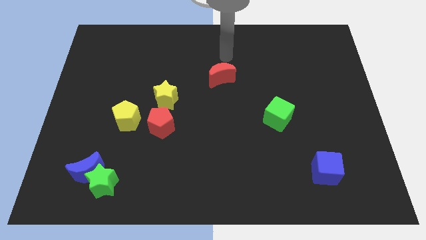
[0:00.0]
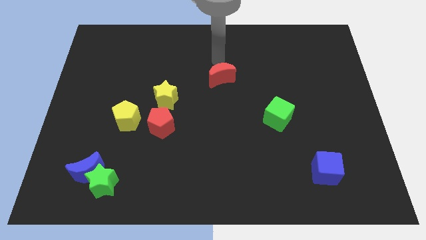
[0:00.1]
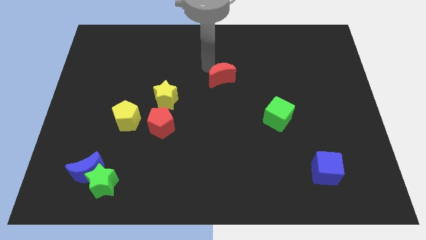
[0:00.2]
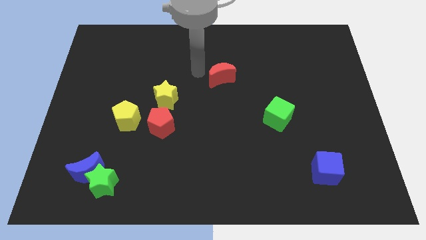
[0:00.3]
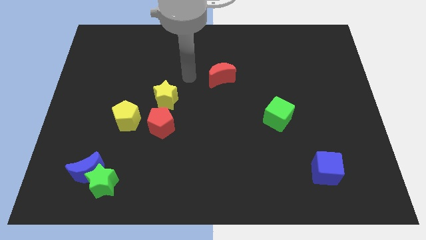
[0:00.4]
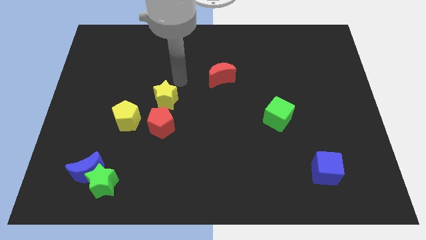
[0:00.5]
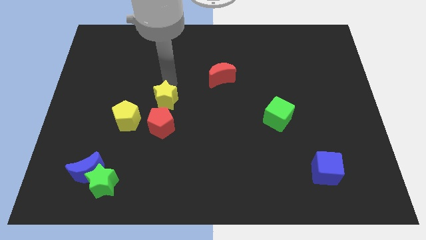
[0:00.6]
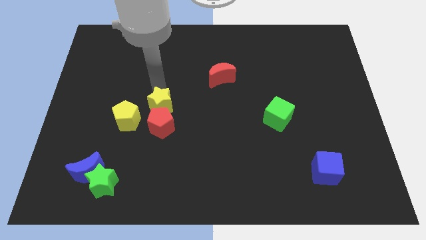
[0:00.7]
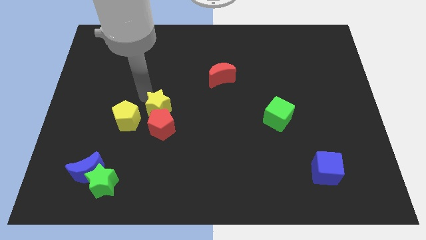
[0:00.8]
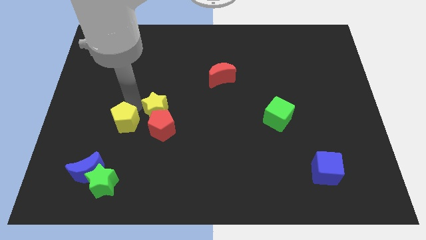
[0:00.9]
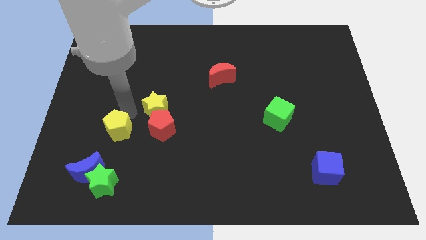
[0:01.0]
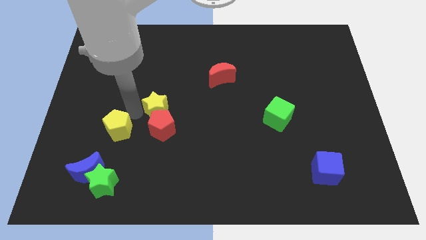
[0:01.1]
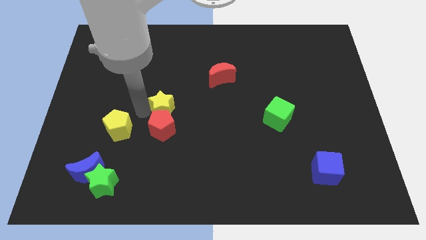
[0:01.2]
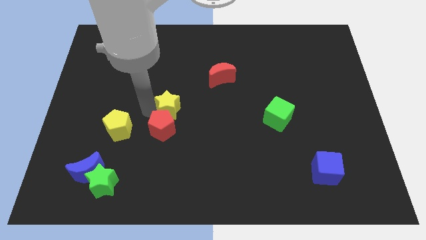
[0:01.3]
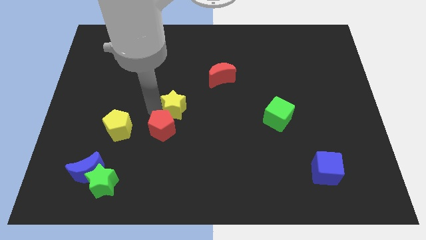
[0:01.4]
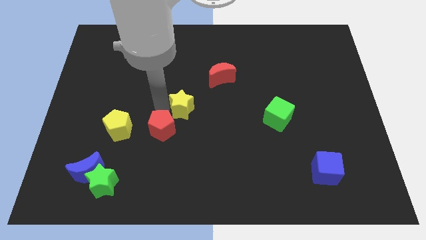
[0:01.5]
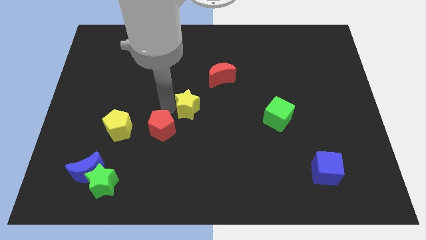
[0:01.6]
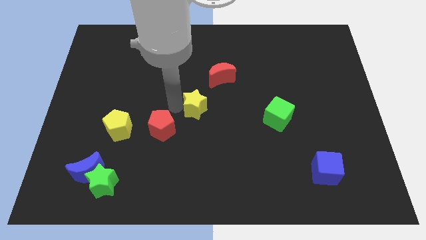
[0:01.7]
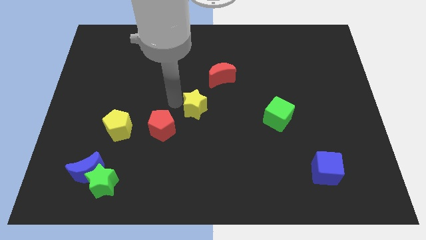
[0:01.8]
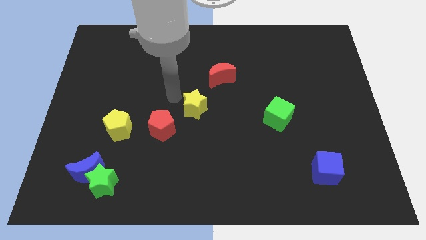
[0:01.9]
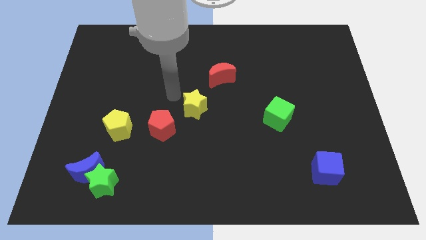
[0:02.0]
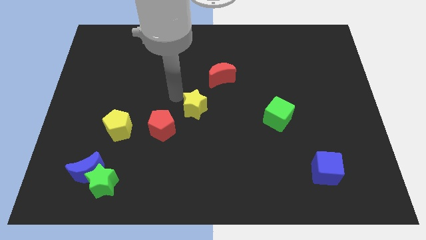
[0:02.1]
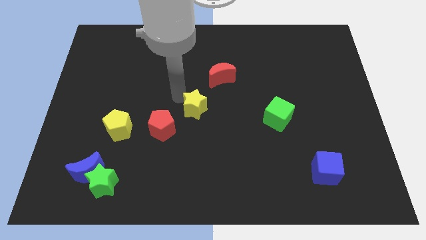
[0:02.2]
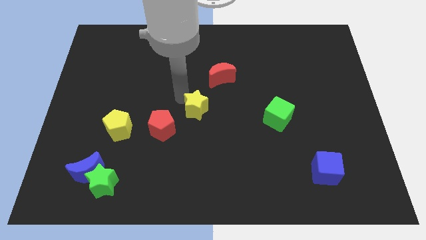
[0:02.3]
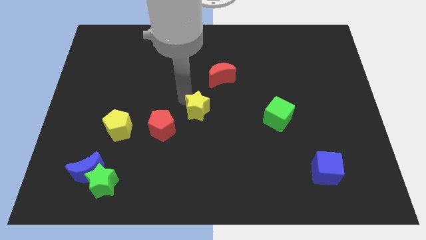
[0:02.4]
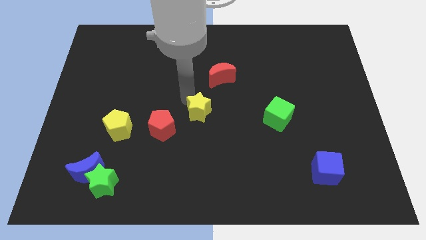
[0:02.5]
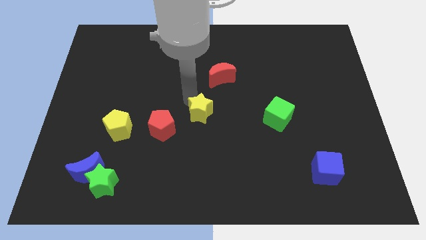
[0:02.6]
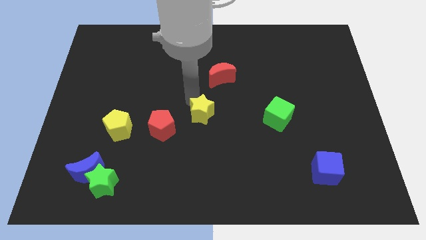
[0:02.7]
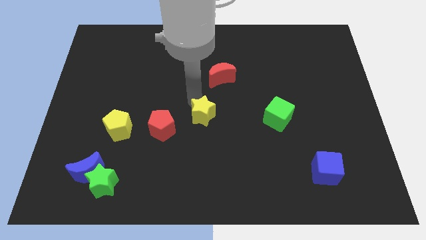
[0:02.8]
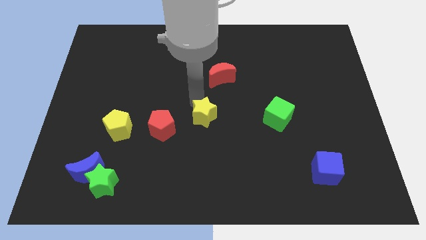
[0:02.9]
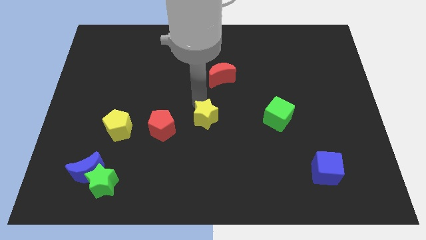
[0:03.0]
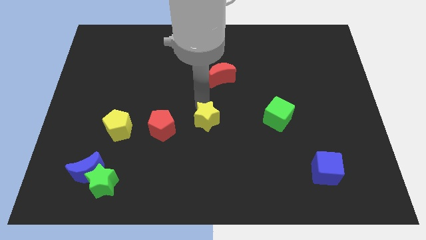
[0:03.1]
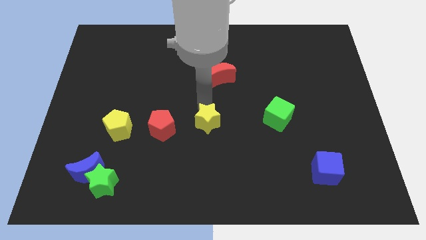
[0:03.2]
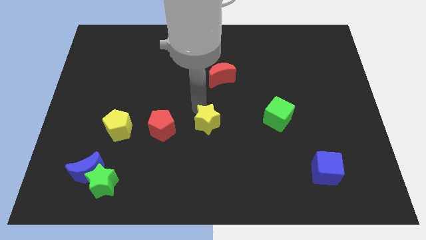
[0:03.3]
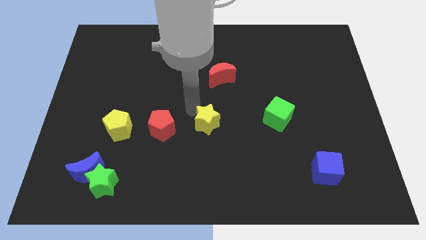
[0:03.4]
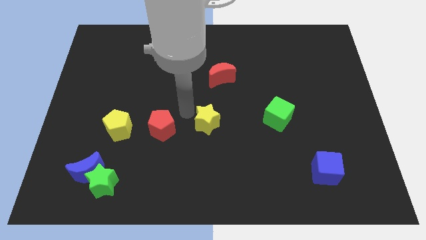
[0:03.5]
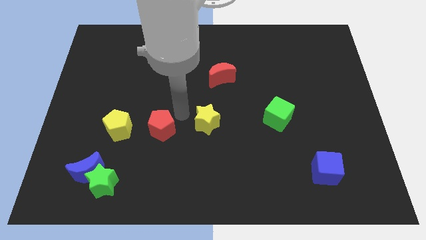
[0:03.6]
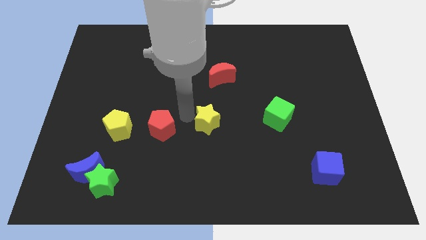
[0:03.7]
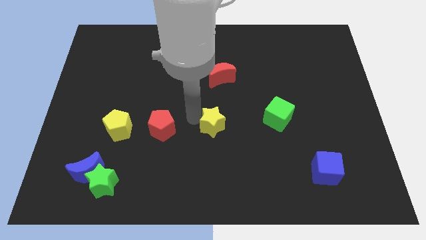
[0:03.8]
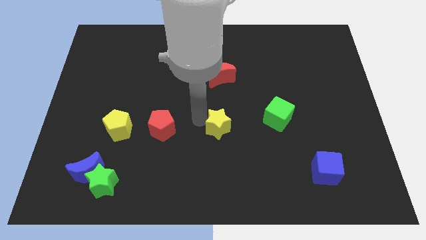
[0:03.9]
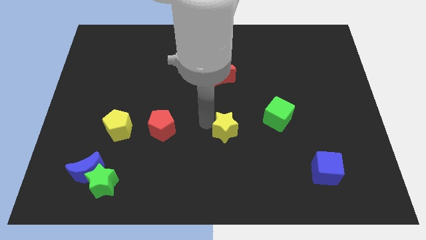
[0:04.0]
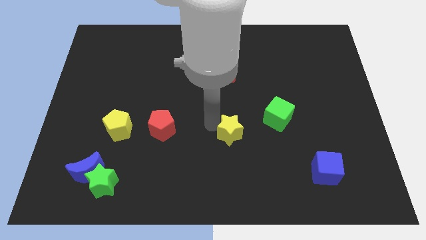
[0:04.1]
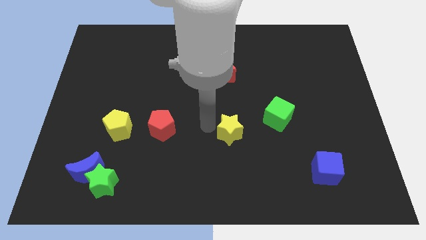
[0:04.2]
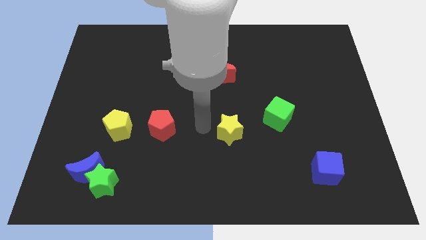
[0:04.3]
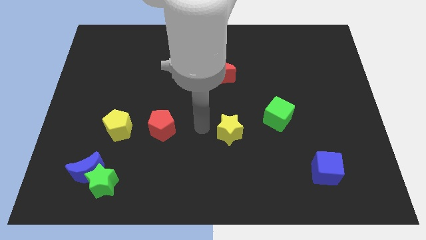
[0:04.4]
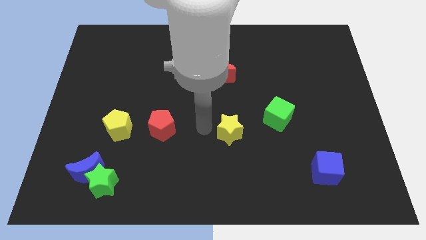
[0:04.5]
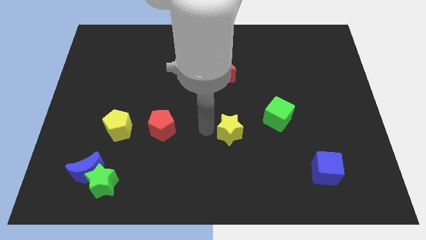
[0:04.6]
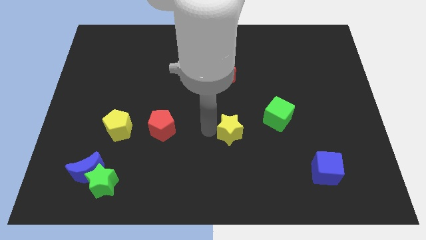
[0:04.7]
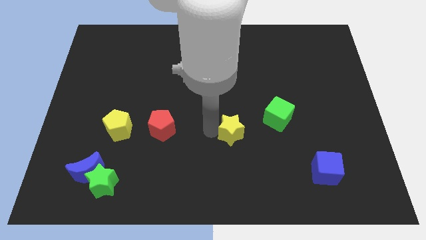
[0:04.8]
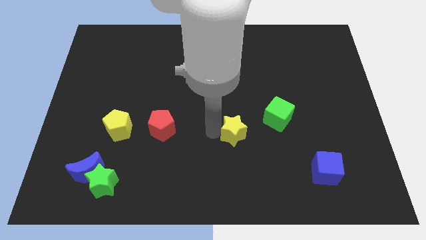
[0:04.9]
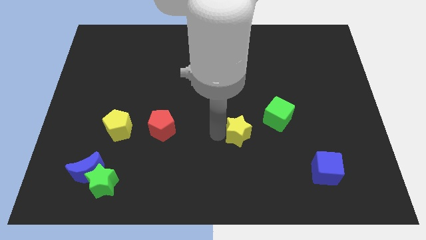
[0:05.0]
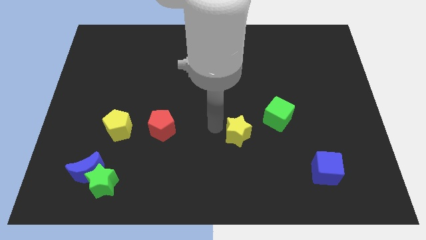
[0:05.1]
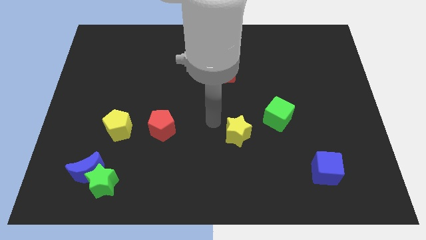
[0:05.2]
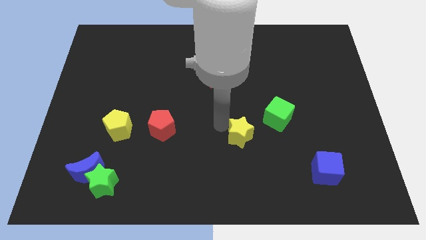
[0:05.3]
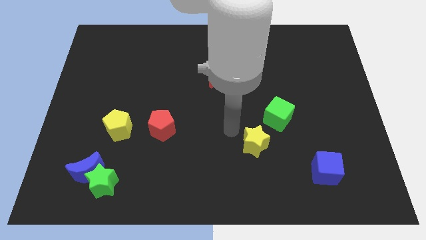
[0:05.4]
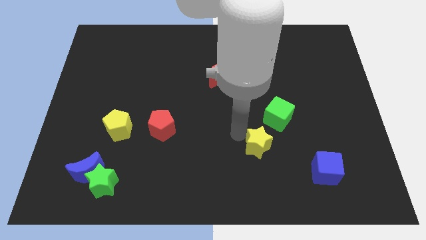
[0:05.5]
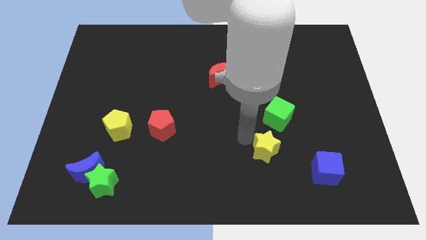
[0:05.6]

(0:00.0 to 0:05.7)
push the yellow star below the green cube

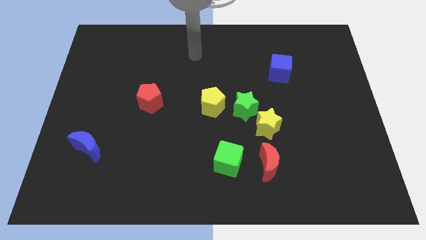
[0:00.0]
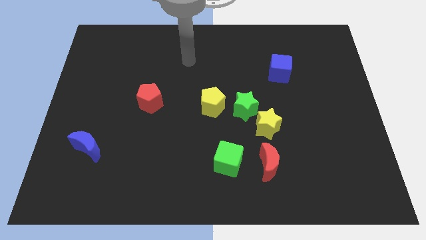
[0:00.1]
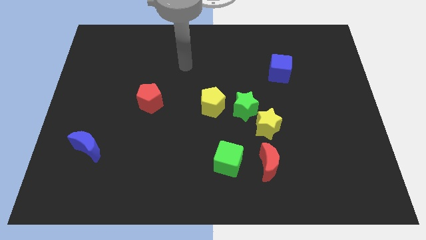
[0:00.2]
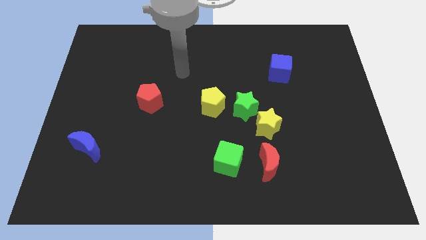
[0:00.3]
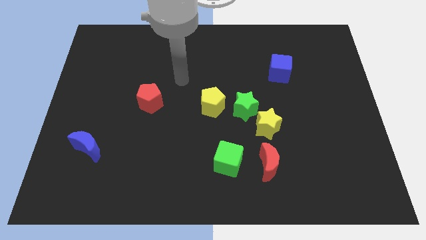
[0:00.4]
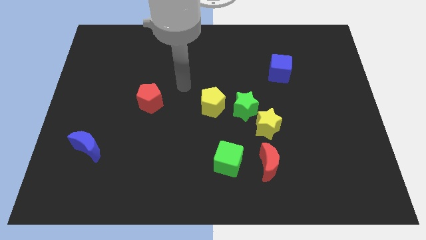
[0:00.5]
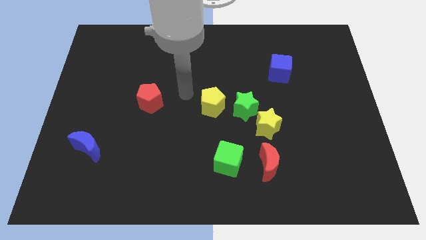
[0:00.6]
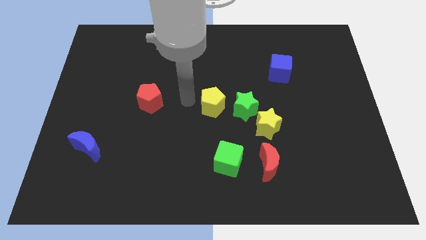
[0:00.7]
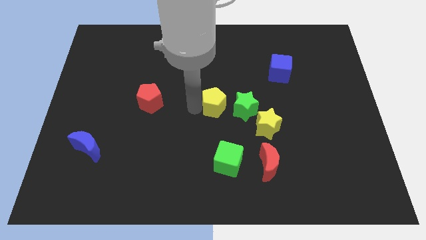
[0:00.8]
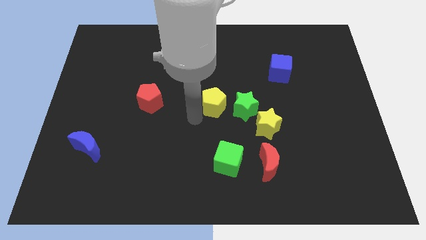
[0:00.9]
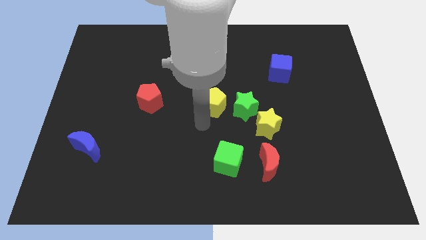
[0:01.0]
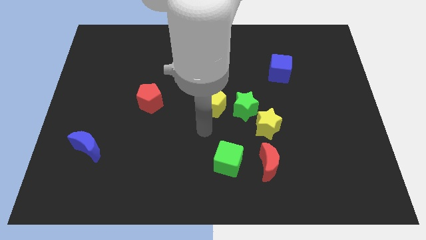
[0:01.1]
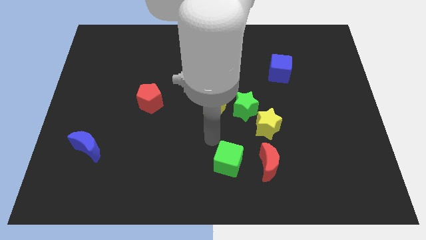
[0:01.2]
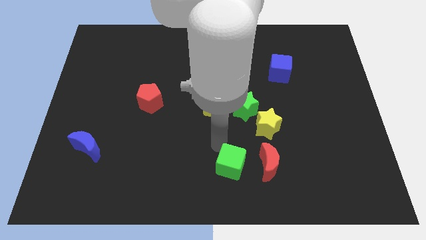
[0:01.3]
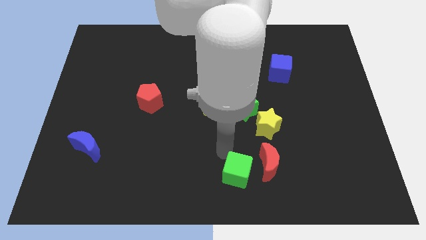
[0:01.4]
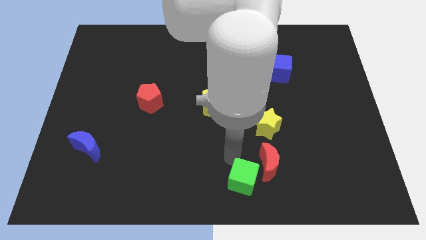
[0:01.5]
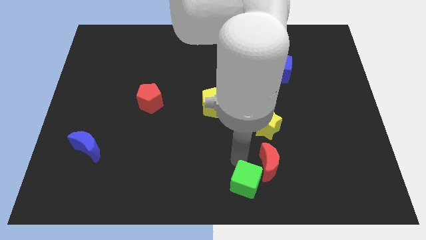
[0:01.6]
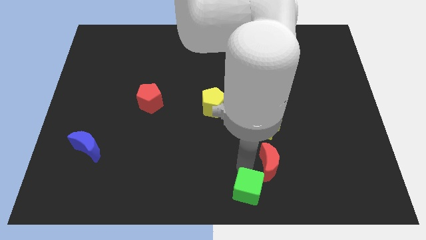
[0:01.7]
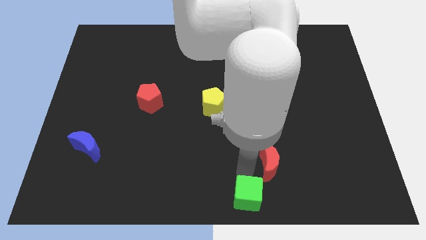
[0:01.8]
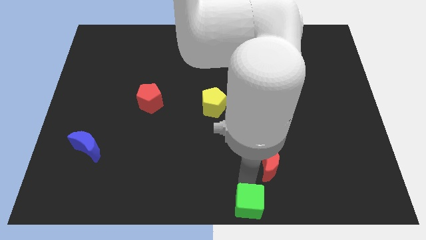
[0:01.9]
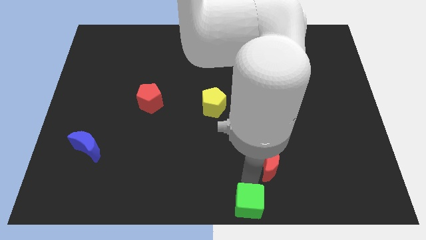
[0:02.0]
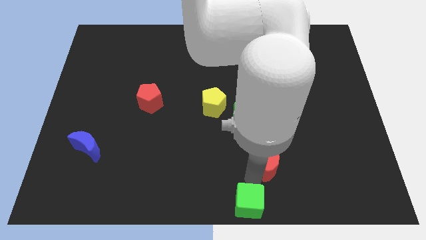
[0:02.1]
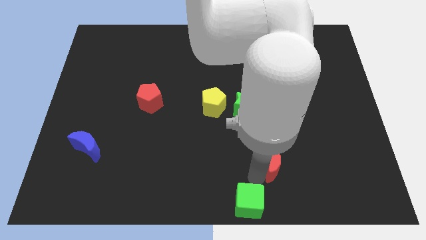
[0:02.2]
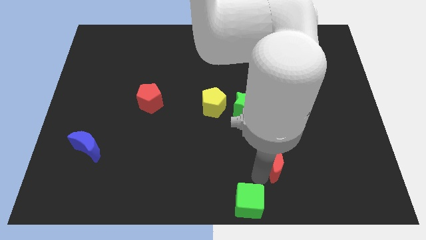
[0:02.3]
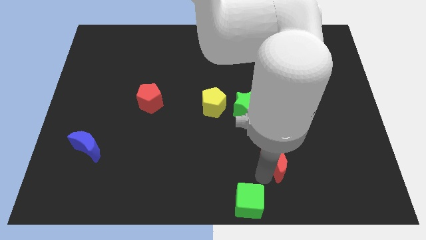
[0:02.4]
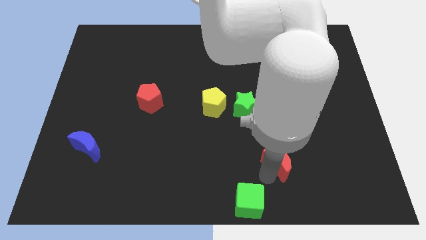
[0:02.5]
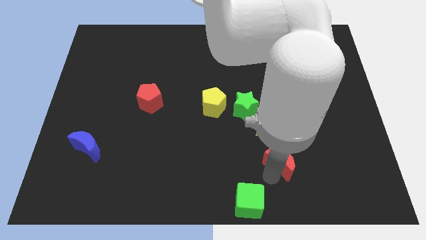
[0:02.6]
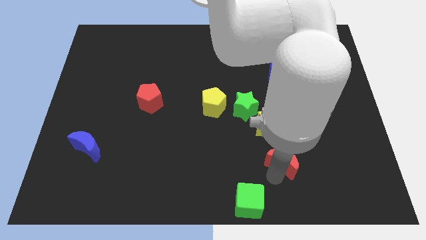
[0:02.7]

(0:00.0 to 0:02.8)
slide the red moon diagonally down and to the right of the yellow star
